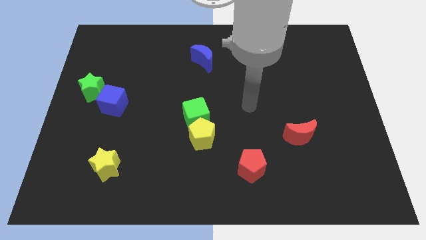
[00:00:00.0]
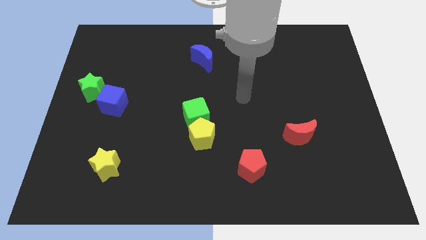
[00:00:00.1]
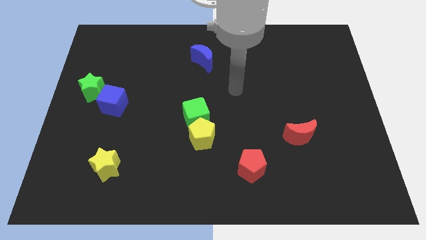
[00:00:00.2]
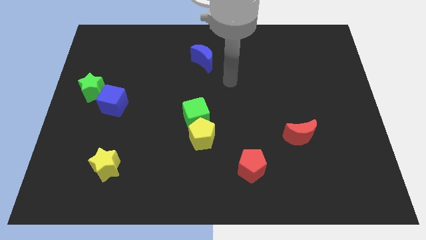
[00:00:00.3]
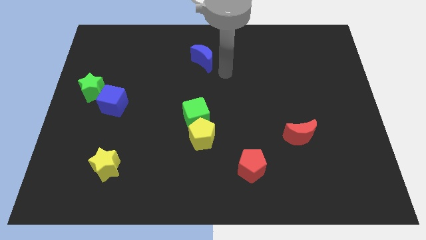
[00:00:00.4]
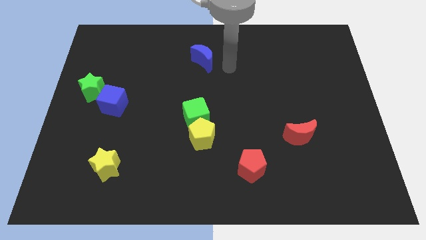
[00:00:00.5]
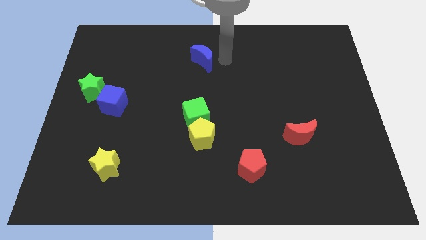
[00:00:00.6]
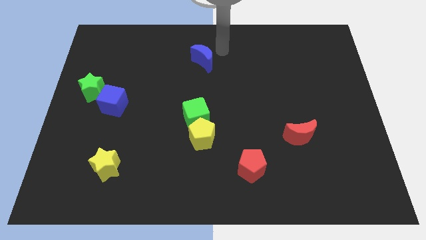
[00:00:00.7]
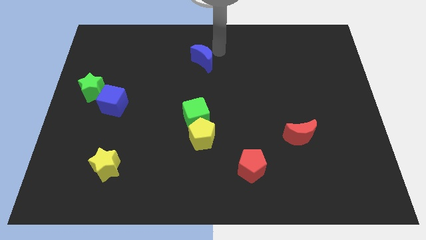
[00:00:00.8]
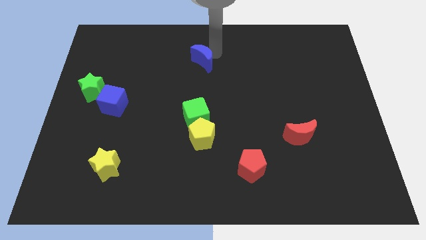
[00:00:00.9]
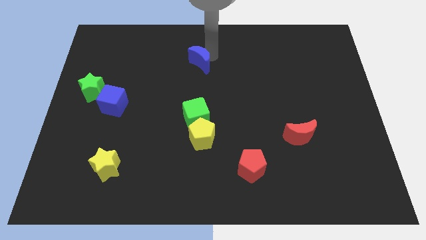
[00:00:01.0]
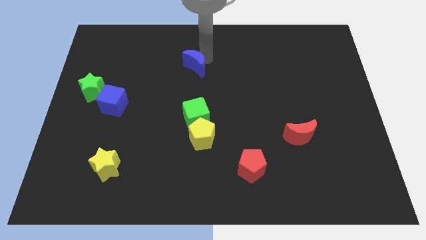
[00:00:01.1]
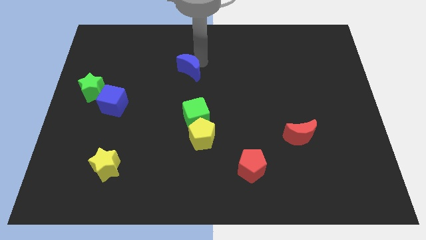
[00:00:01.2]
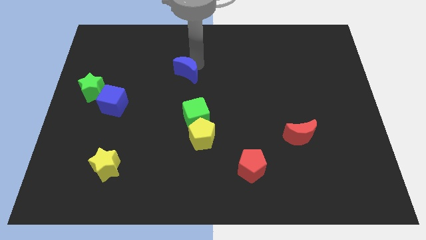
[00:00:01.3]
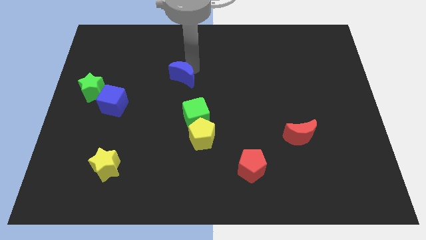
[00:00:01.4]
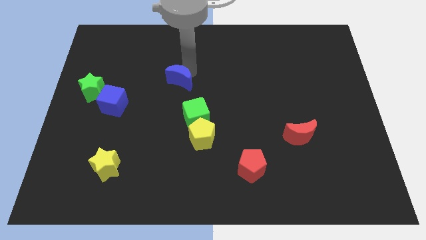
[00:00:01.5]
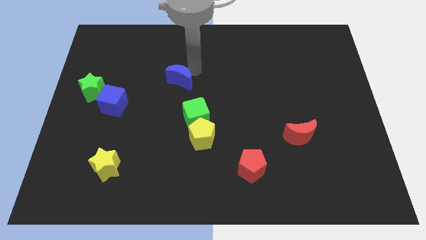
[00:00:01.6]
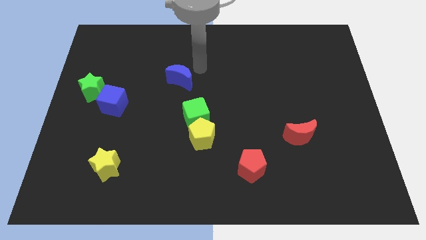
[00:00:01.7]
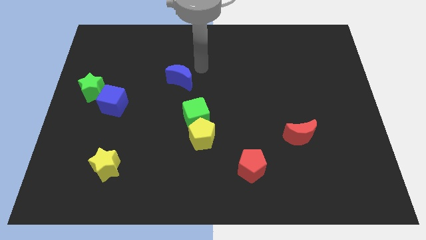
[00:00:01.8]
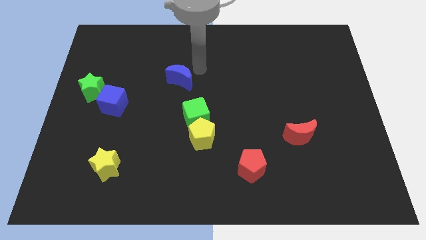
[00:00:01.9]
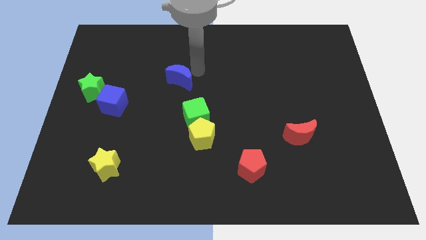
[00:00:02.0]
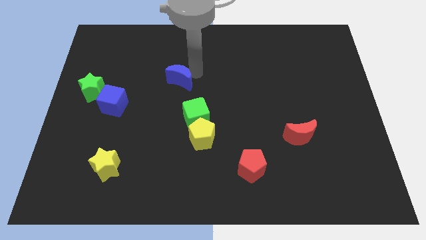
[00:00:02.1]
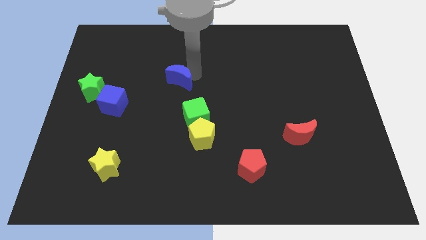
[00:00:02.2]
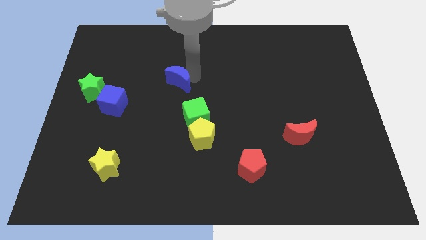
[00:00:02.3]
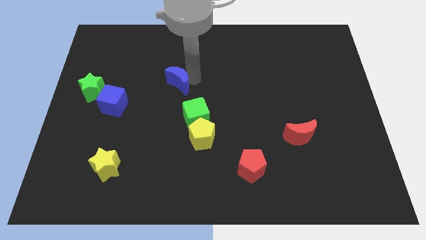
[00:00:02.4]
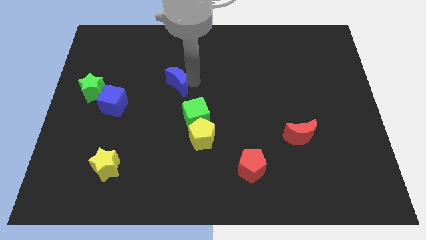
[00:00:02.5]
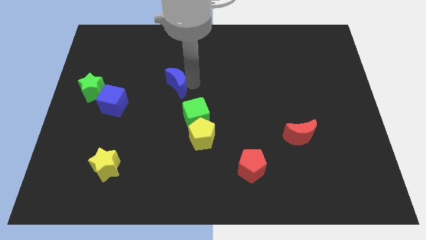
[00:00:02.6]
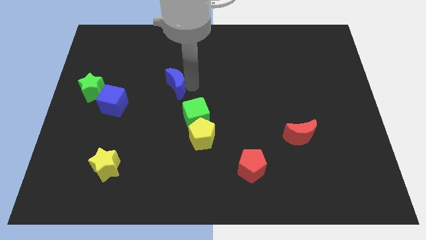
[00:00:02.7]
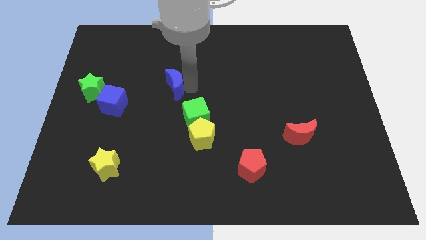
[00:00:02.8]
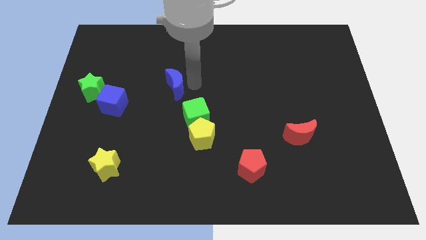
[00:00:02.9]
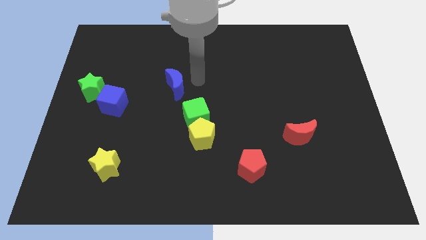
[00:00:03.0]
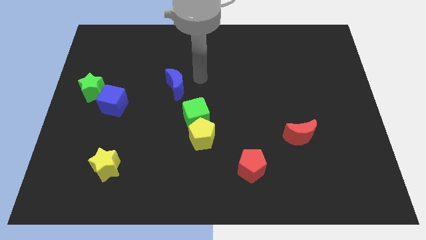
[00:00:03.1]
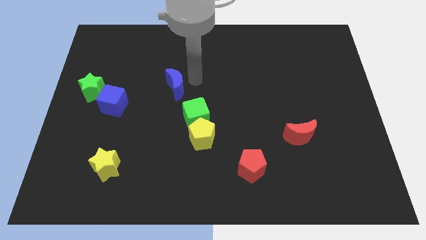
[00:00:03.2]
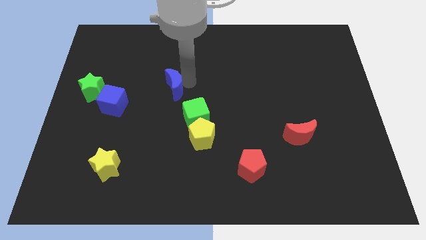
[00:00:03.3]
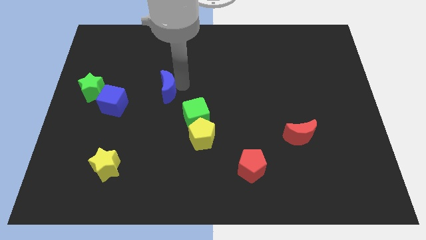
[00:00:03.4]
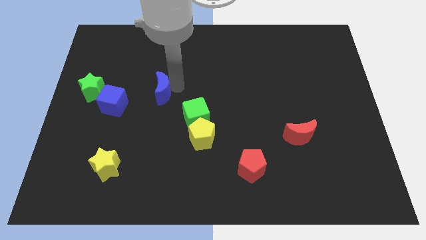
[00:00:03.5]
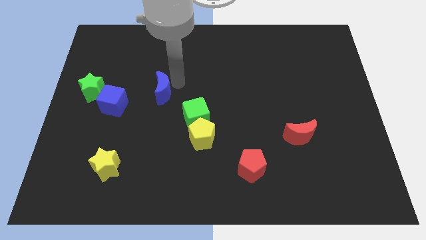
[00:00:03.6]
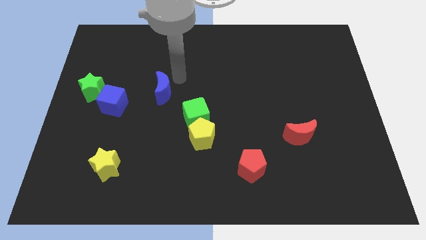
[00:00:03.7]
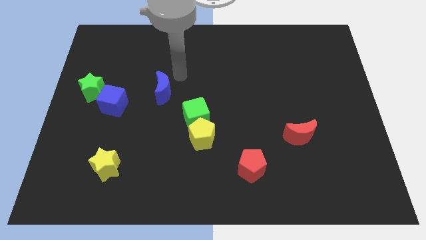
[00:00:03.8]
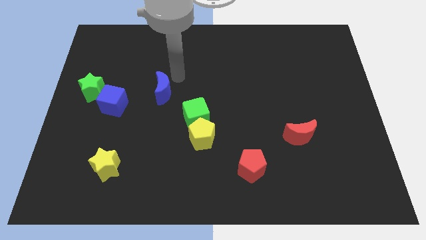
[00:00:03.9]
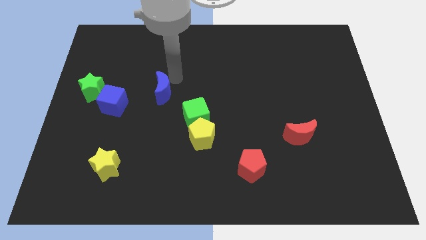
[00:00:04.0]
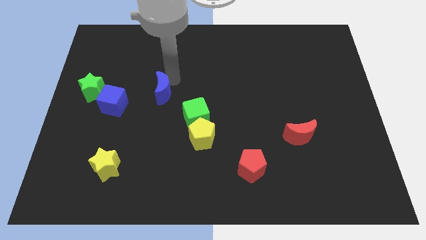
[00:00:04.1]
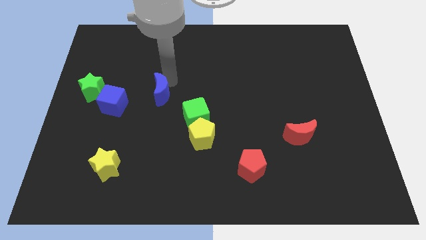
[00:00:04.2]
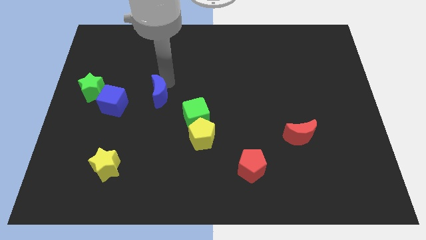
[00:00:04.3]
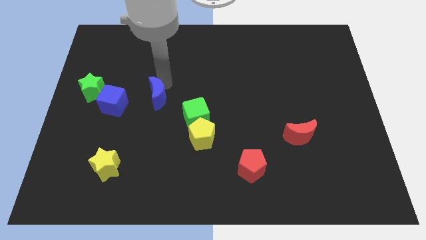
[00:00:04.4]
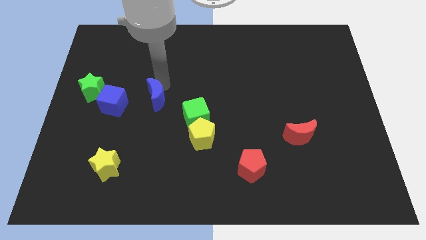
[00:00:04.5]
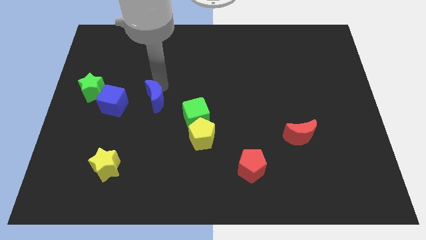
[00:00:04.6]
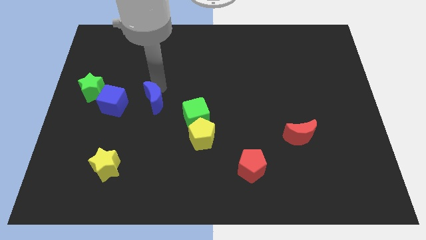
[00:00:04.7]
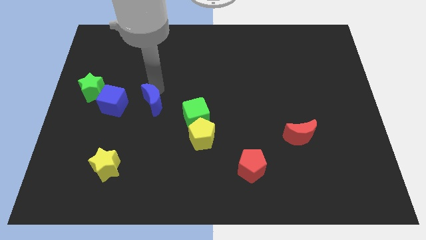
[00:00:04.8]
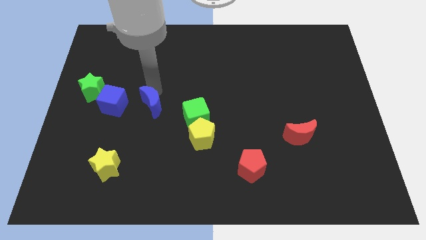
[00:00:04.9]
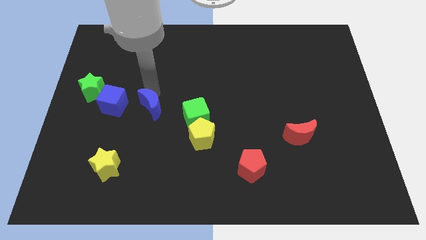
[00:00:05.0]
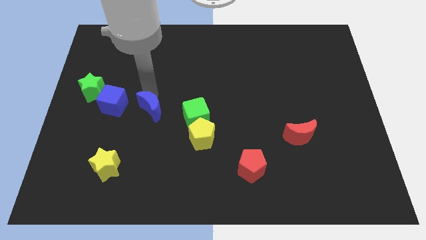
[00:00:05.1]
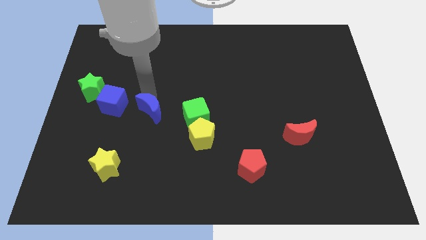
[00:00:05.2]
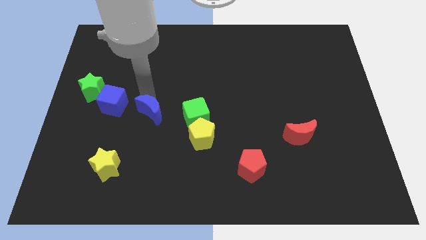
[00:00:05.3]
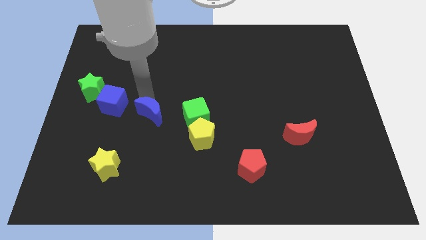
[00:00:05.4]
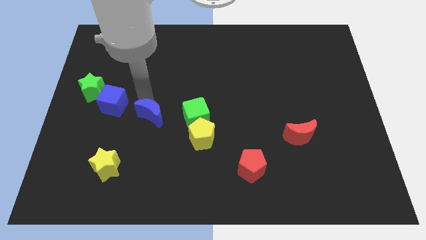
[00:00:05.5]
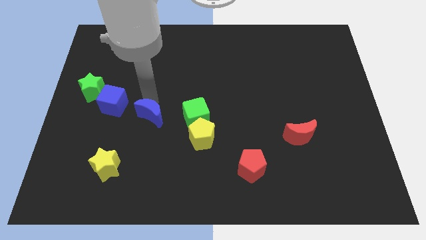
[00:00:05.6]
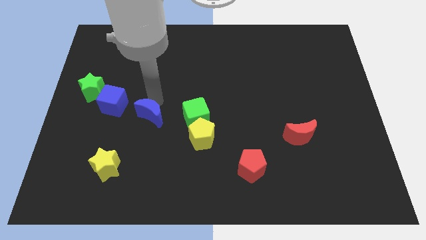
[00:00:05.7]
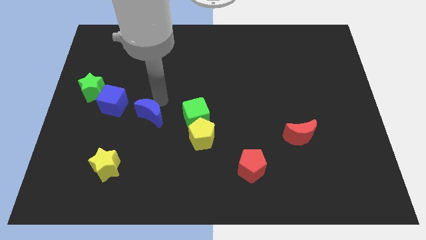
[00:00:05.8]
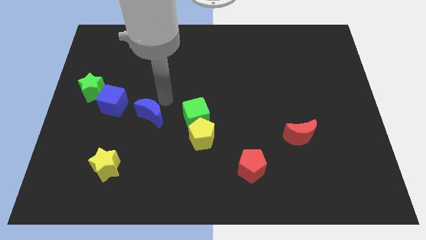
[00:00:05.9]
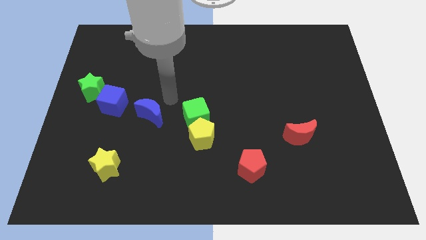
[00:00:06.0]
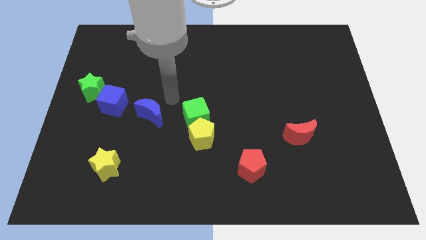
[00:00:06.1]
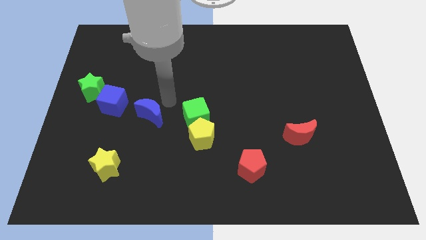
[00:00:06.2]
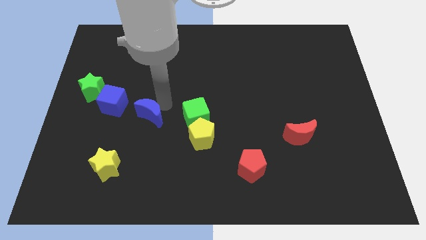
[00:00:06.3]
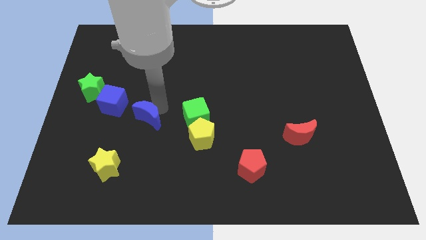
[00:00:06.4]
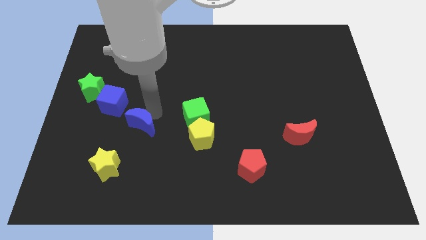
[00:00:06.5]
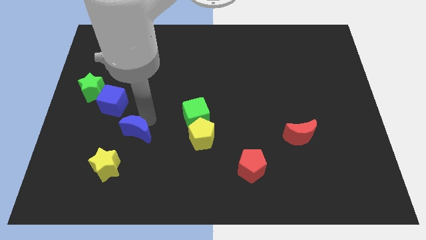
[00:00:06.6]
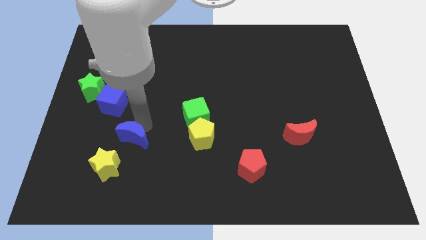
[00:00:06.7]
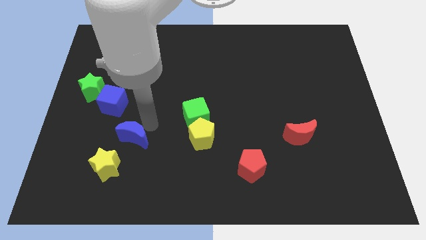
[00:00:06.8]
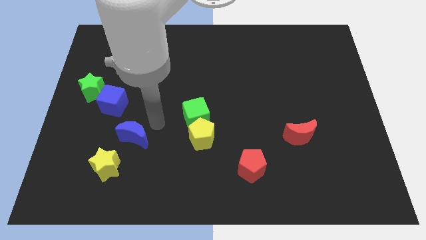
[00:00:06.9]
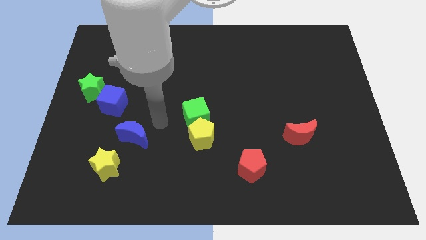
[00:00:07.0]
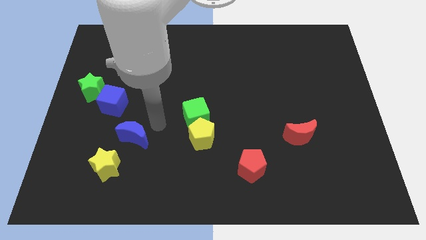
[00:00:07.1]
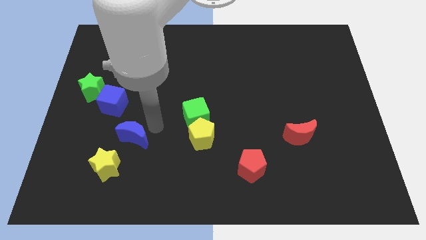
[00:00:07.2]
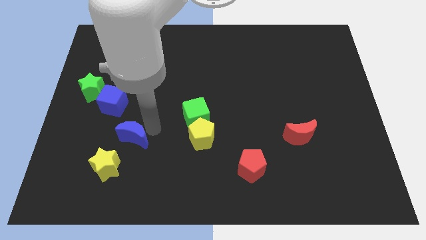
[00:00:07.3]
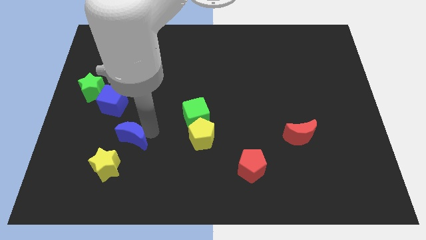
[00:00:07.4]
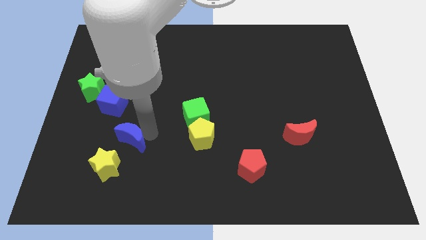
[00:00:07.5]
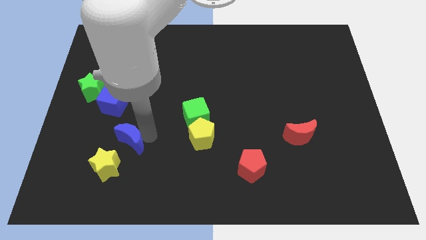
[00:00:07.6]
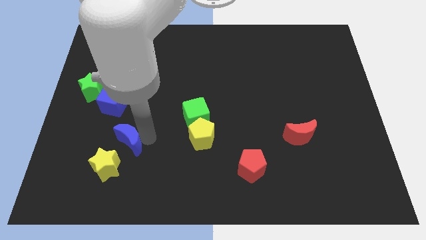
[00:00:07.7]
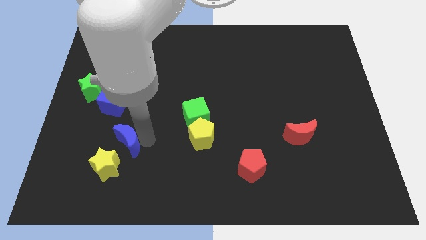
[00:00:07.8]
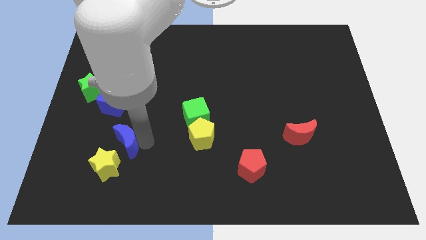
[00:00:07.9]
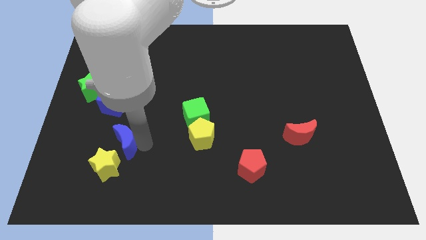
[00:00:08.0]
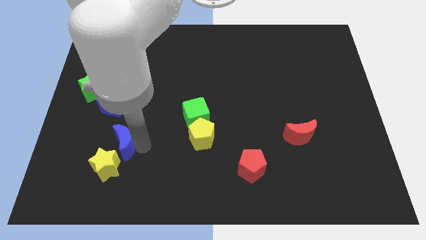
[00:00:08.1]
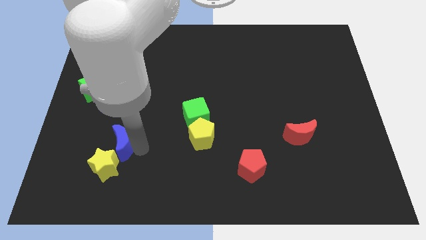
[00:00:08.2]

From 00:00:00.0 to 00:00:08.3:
move the blue moon next to the yellow star
